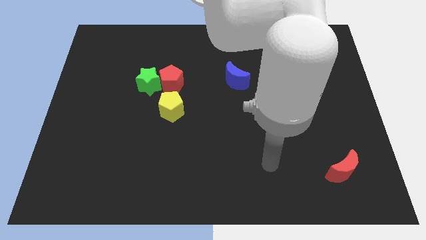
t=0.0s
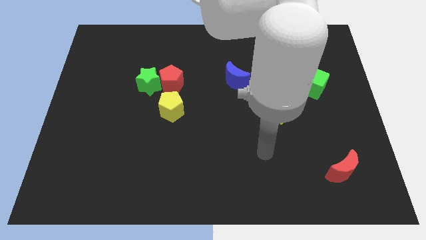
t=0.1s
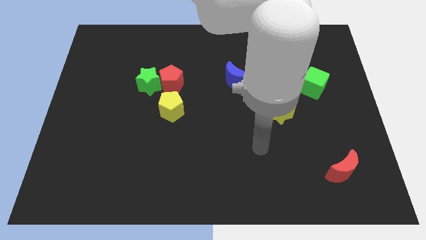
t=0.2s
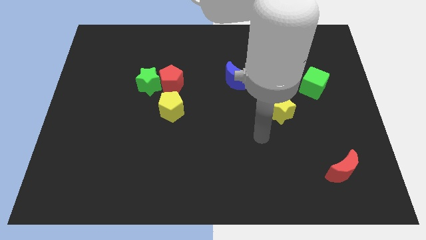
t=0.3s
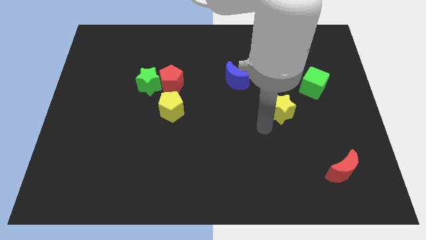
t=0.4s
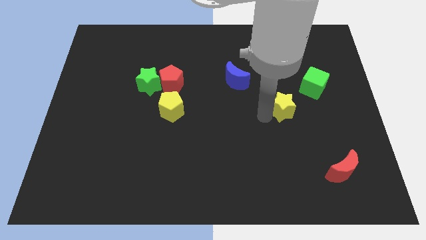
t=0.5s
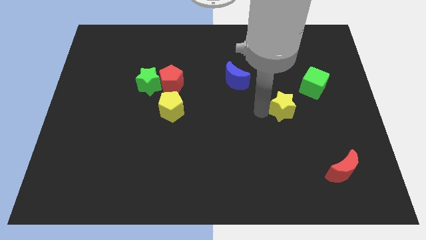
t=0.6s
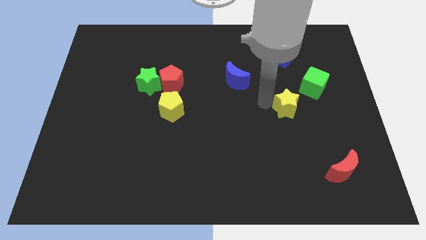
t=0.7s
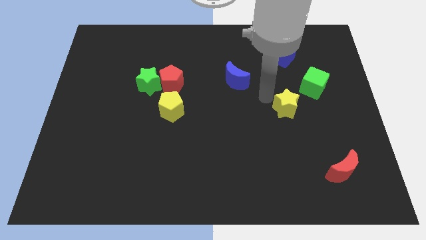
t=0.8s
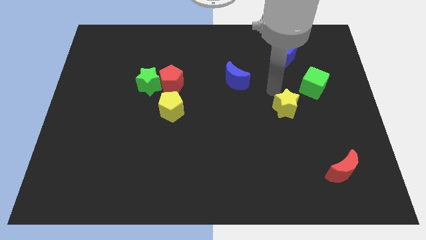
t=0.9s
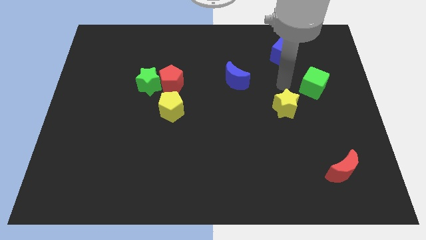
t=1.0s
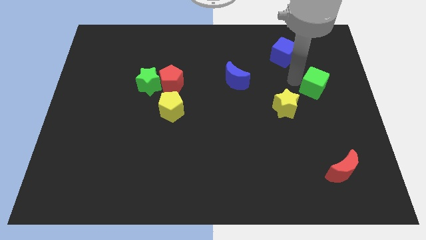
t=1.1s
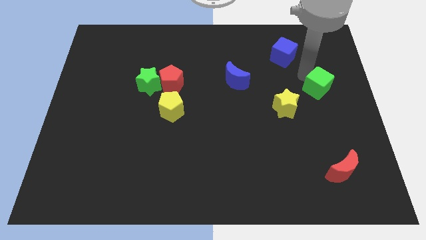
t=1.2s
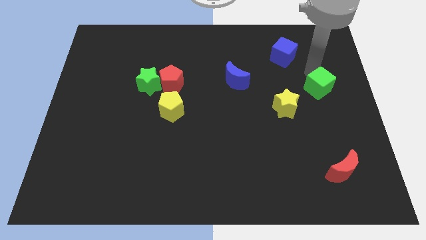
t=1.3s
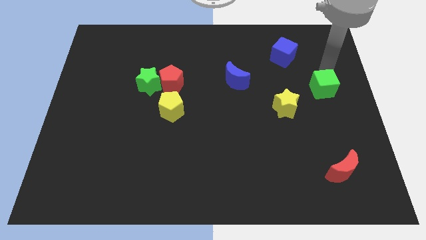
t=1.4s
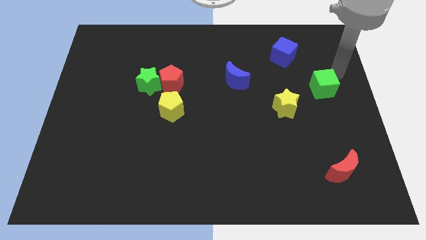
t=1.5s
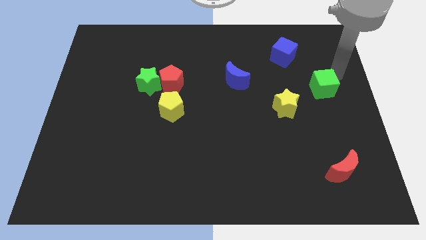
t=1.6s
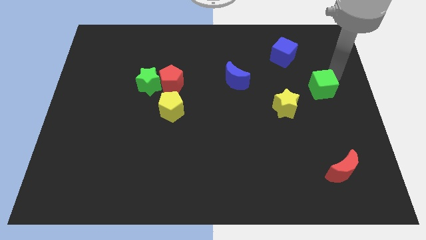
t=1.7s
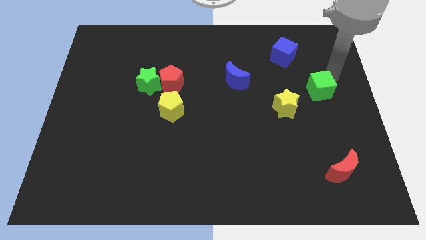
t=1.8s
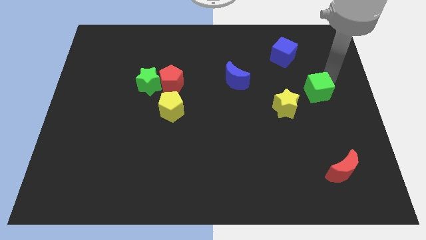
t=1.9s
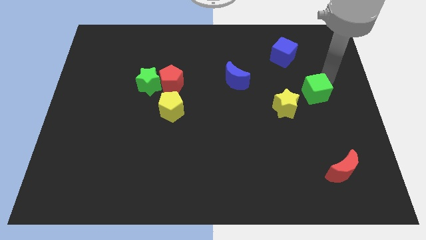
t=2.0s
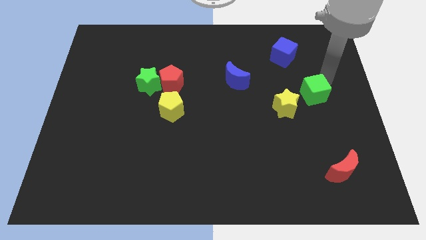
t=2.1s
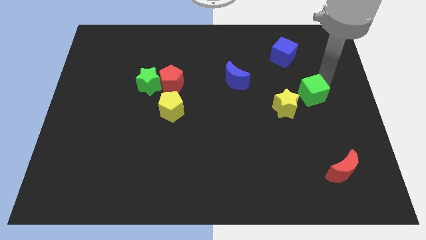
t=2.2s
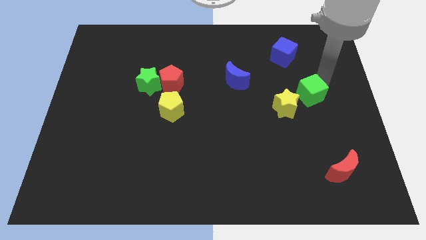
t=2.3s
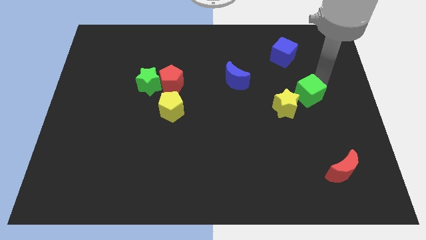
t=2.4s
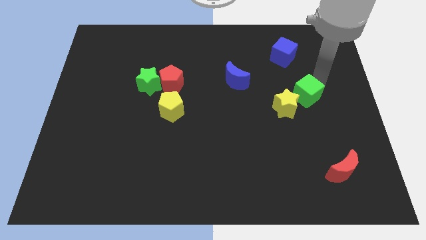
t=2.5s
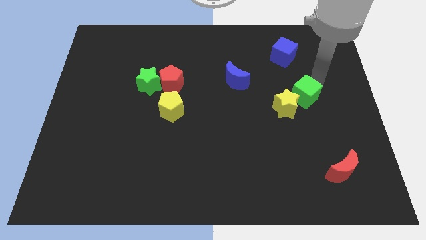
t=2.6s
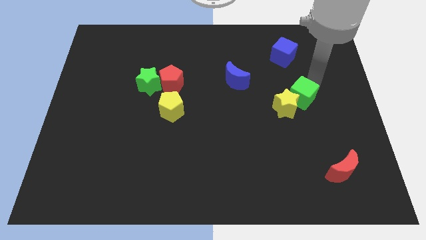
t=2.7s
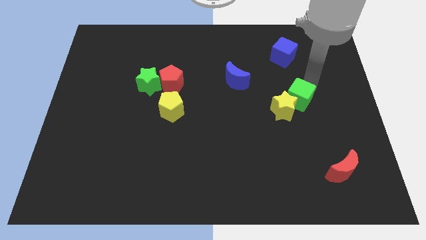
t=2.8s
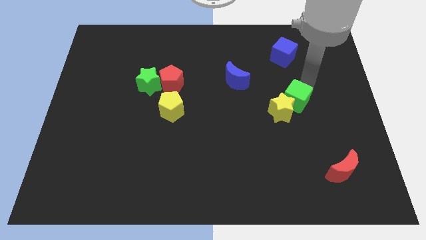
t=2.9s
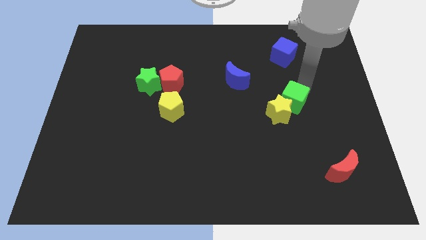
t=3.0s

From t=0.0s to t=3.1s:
push the green cube a bit diagonally downwards and to the left

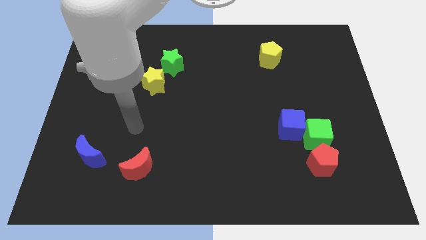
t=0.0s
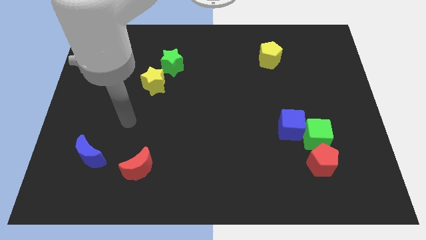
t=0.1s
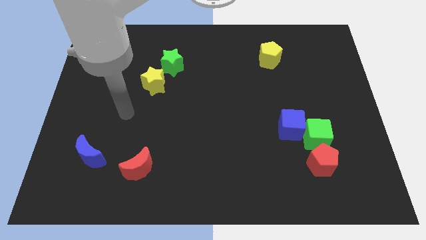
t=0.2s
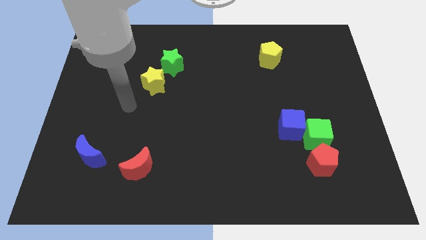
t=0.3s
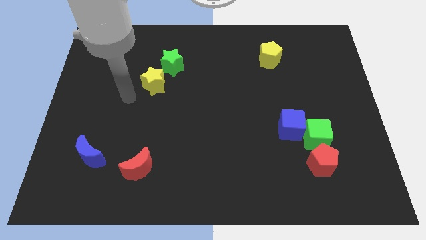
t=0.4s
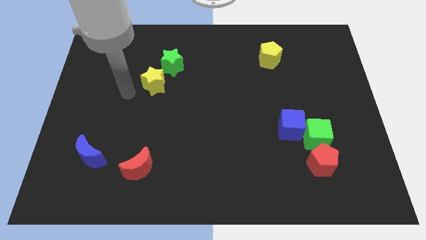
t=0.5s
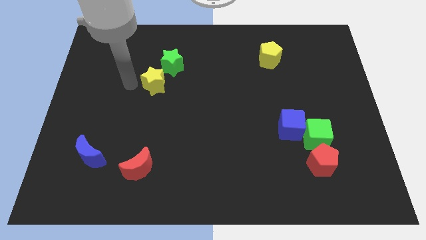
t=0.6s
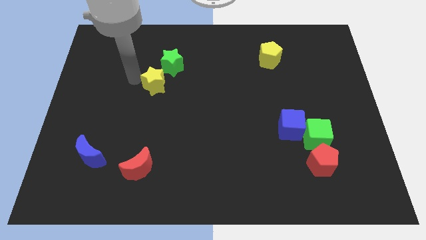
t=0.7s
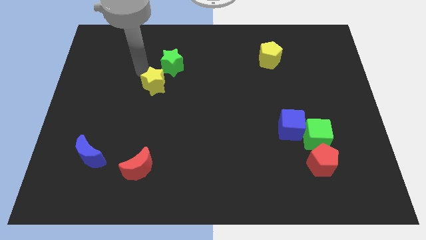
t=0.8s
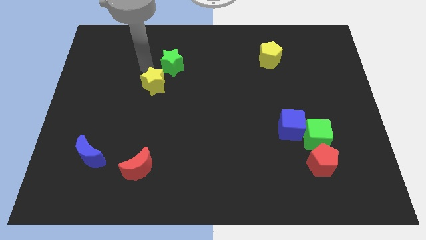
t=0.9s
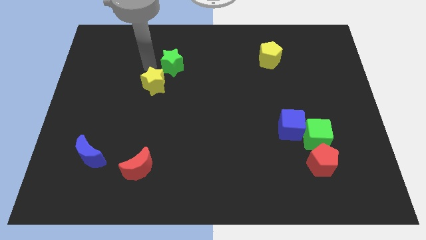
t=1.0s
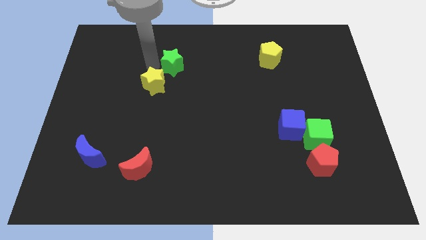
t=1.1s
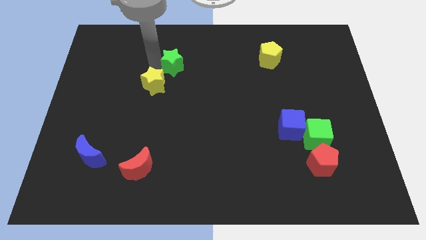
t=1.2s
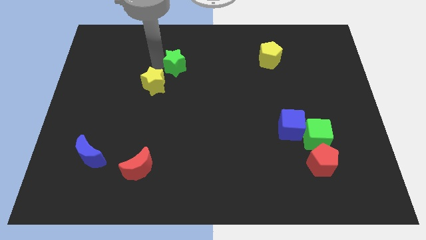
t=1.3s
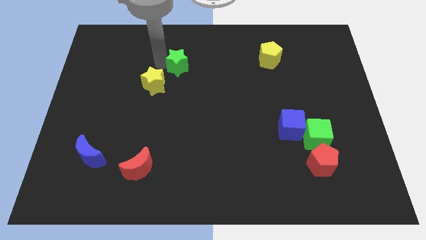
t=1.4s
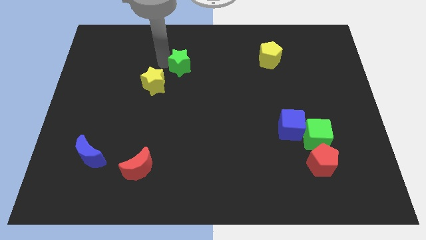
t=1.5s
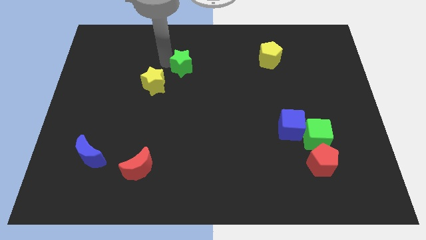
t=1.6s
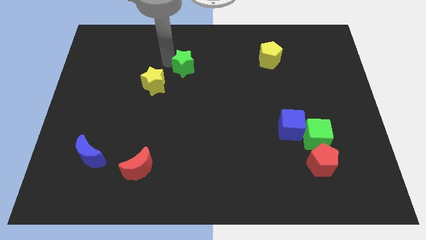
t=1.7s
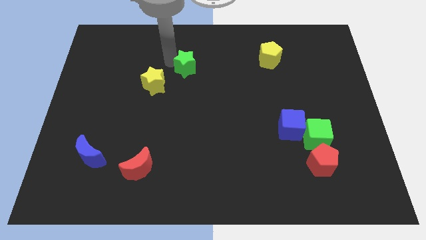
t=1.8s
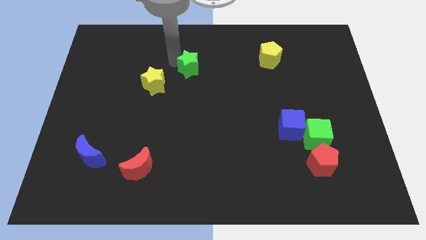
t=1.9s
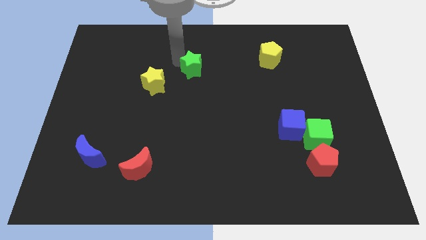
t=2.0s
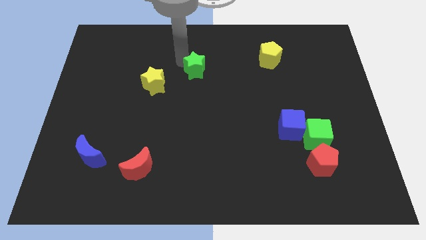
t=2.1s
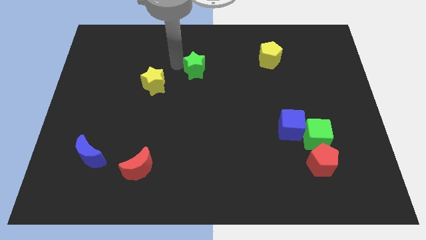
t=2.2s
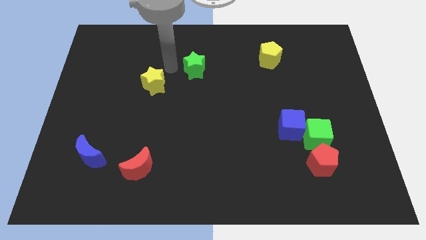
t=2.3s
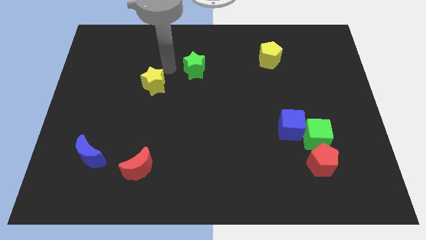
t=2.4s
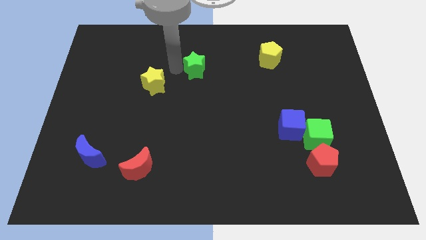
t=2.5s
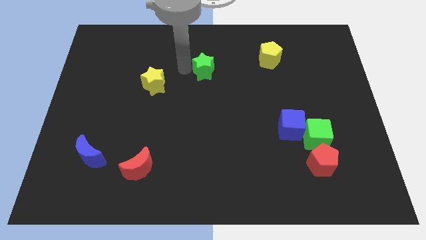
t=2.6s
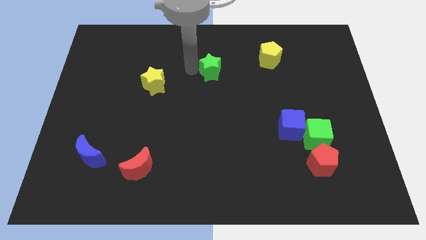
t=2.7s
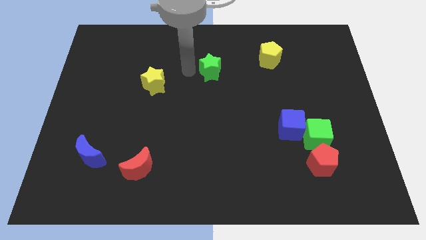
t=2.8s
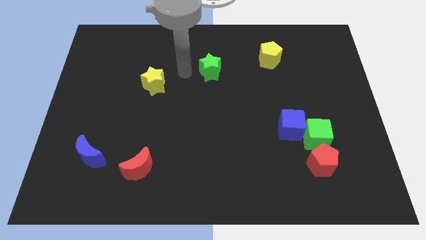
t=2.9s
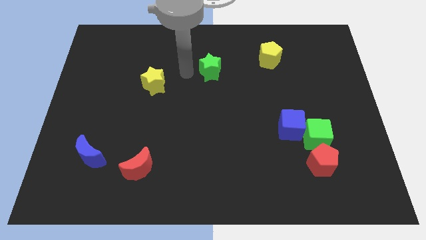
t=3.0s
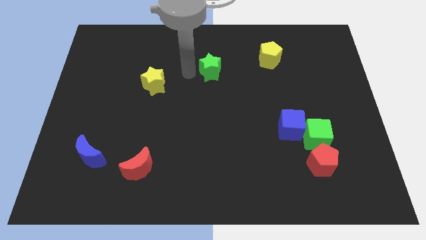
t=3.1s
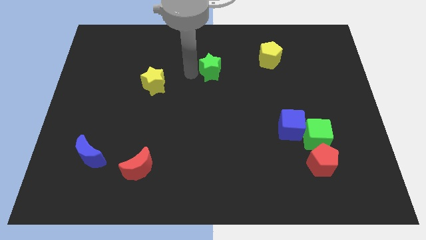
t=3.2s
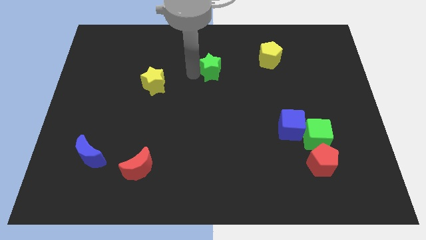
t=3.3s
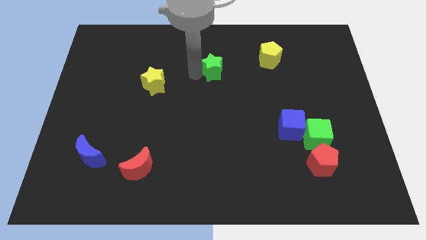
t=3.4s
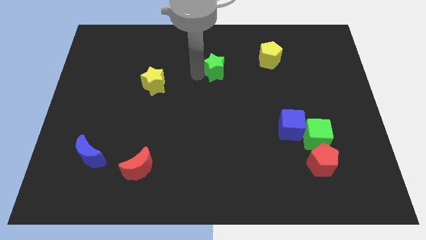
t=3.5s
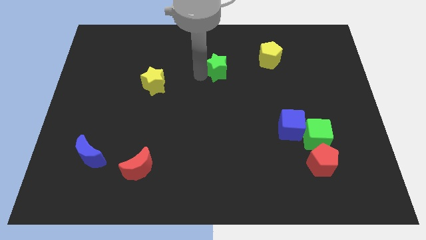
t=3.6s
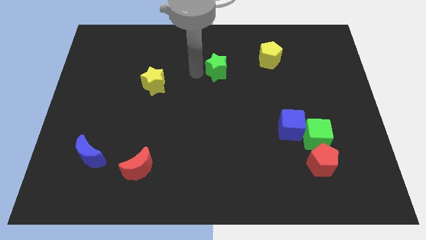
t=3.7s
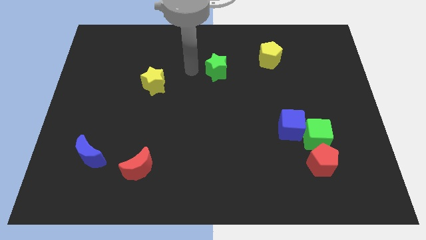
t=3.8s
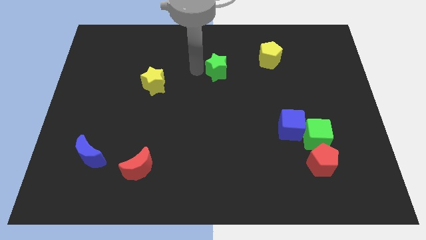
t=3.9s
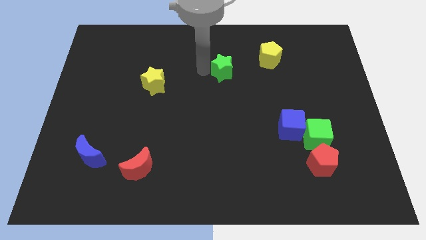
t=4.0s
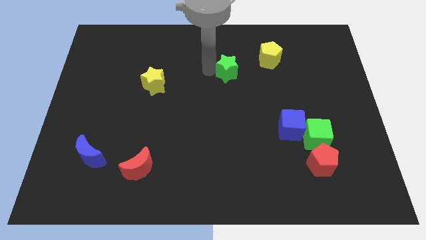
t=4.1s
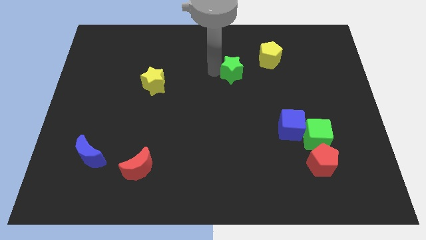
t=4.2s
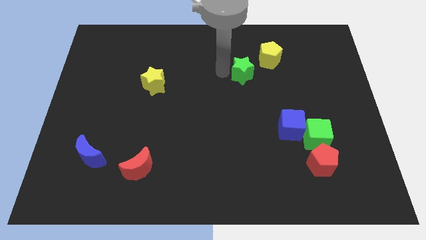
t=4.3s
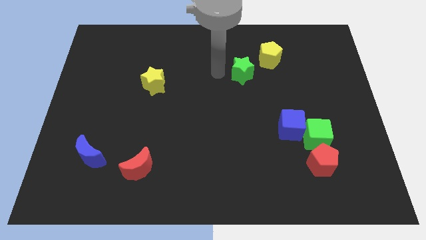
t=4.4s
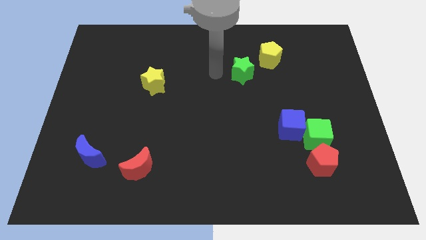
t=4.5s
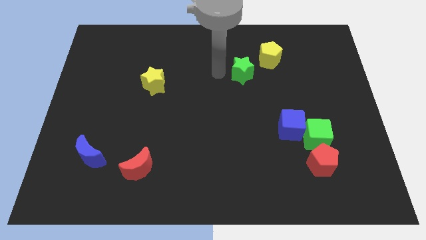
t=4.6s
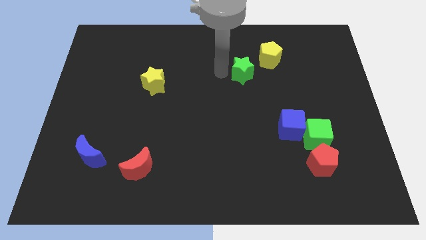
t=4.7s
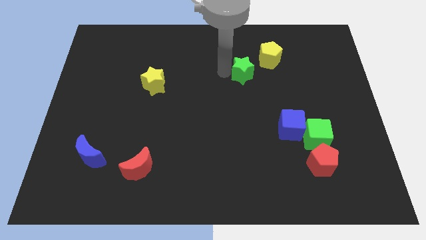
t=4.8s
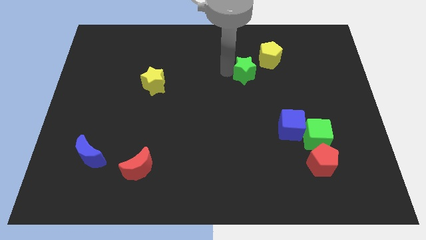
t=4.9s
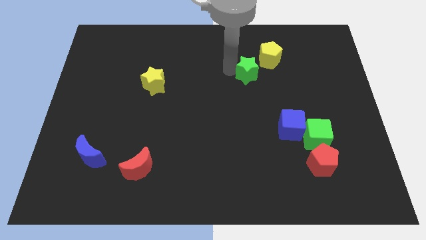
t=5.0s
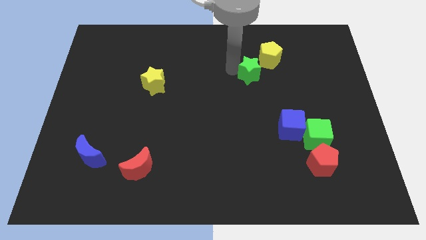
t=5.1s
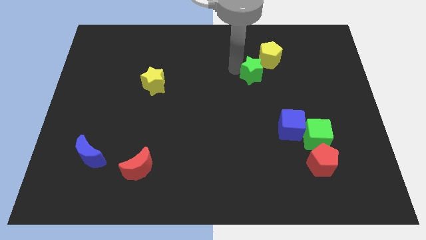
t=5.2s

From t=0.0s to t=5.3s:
slide the green star right
